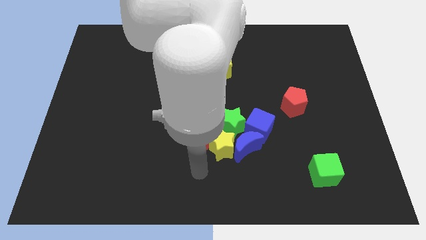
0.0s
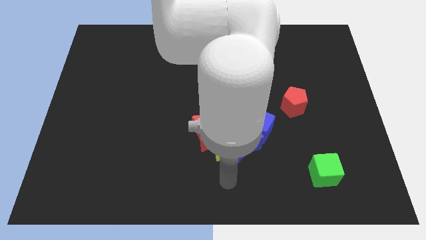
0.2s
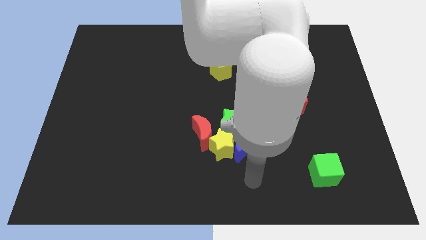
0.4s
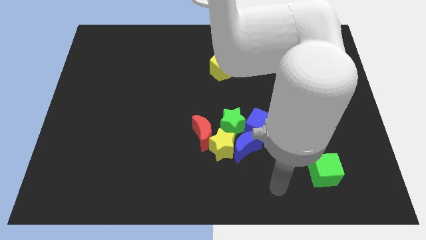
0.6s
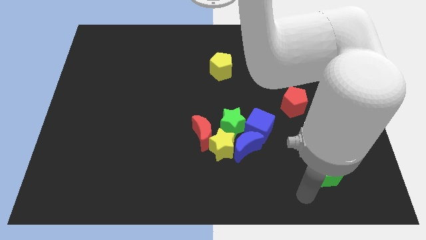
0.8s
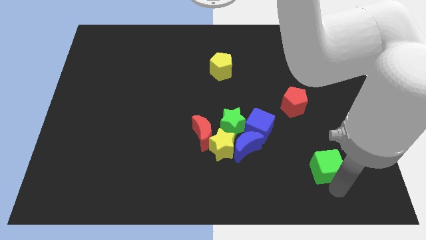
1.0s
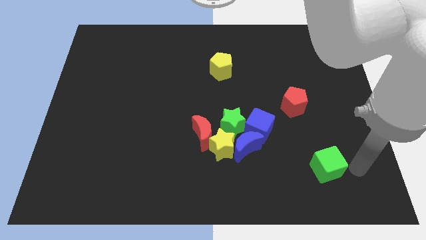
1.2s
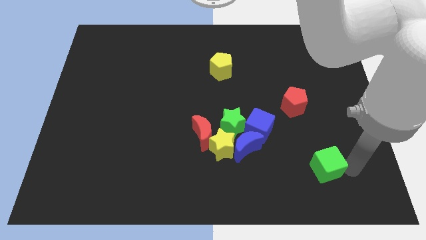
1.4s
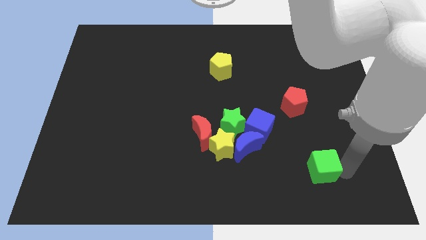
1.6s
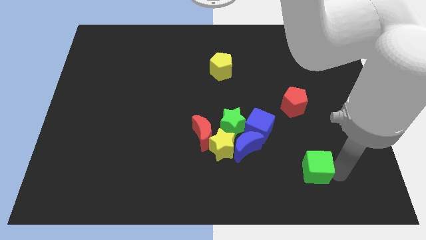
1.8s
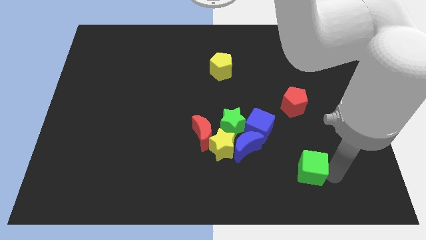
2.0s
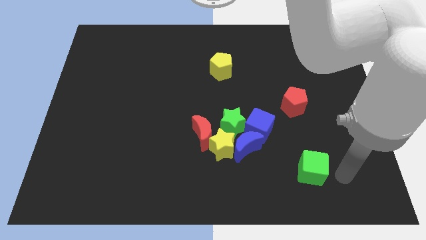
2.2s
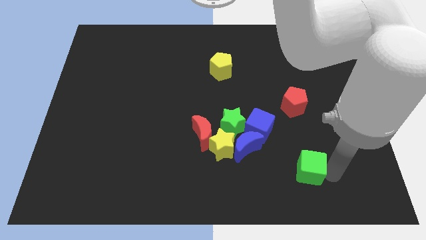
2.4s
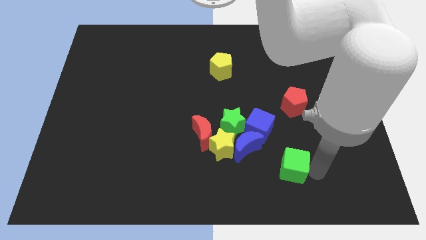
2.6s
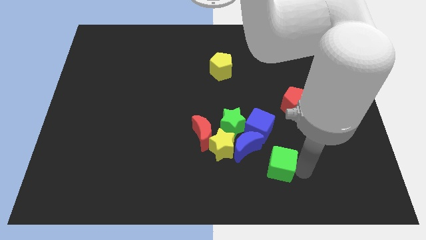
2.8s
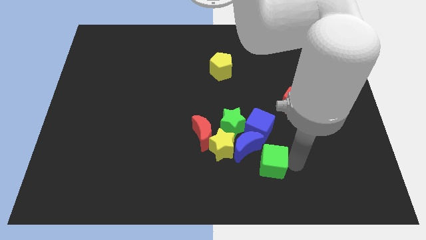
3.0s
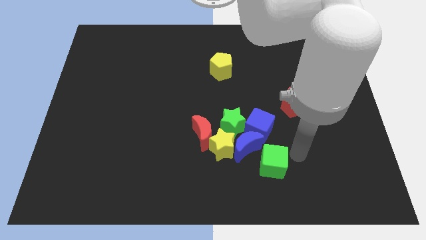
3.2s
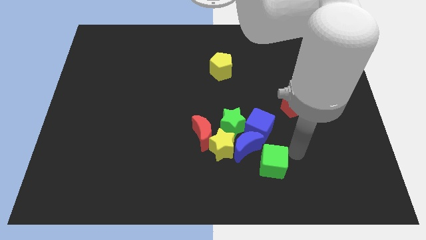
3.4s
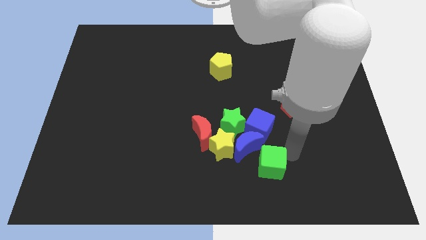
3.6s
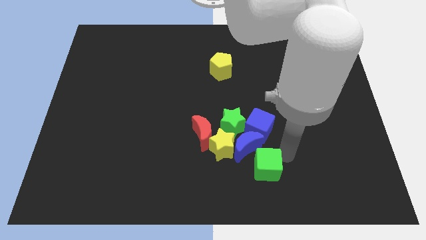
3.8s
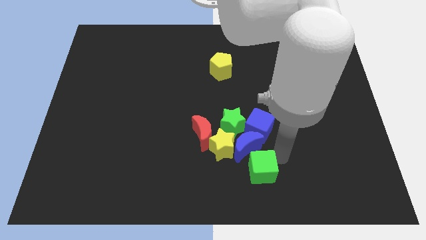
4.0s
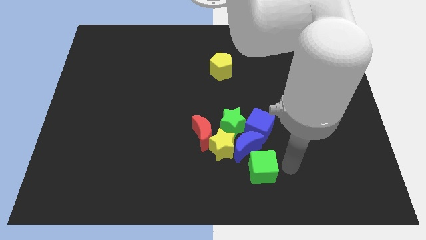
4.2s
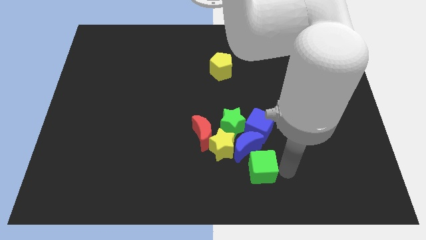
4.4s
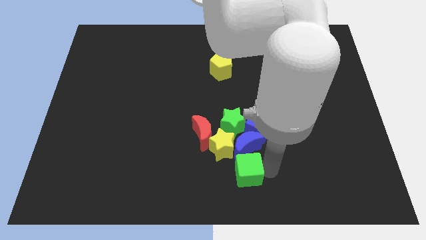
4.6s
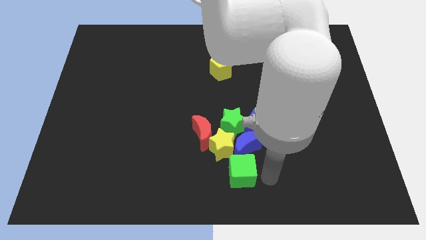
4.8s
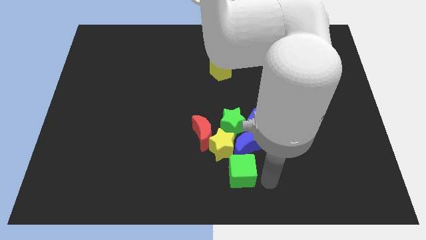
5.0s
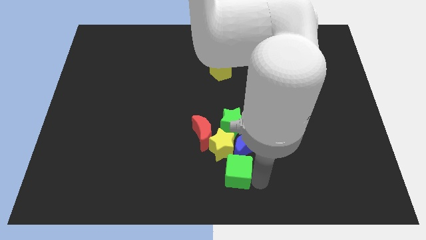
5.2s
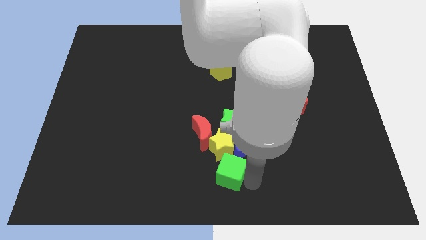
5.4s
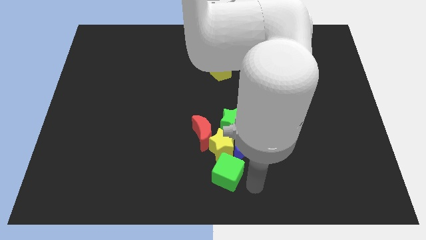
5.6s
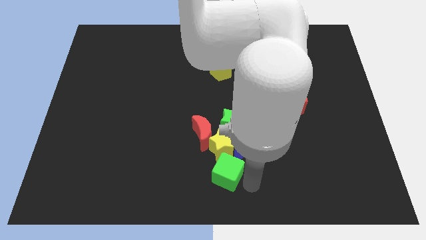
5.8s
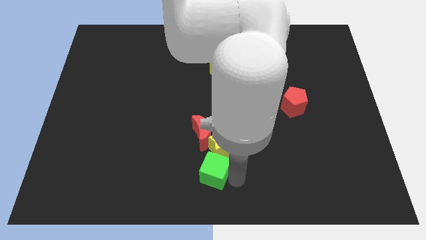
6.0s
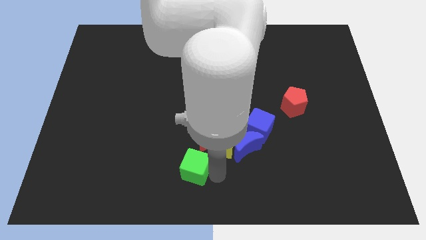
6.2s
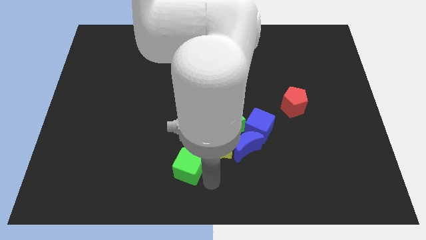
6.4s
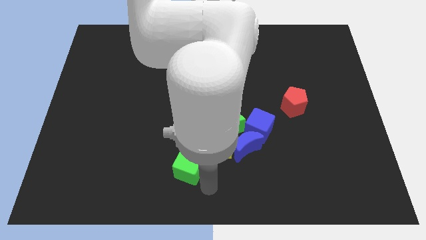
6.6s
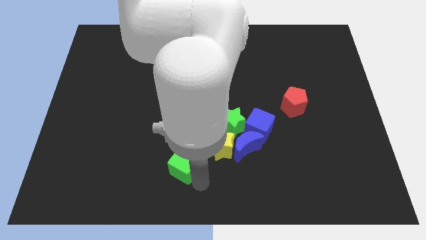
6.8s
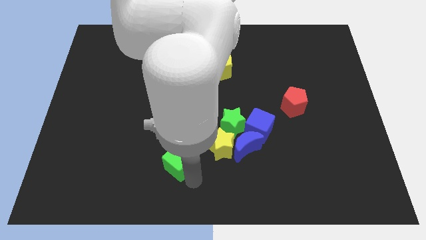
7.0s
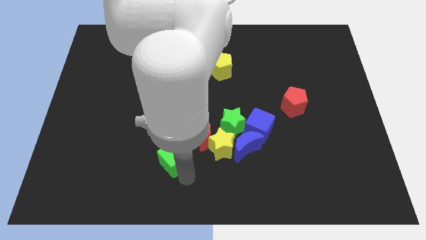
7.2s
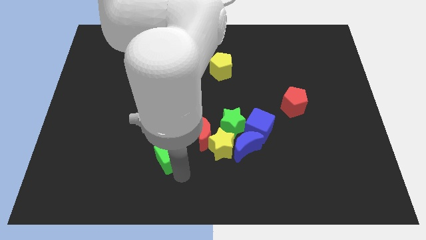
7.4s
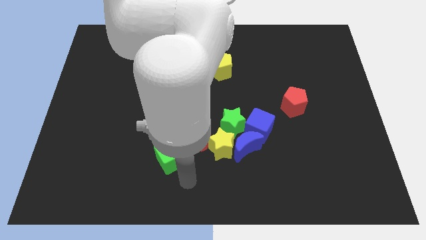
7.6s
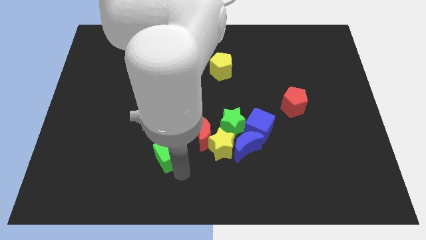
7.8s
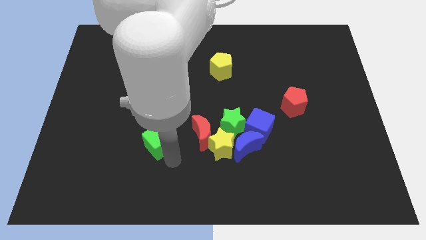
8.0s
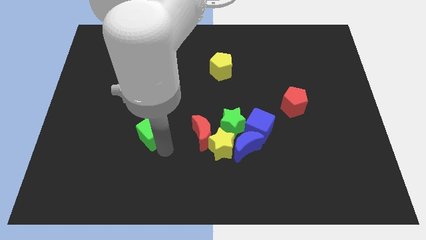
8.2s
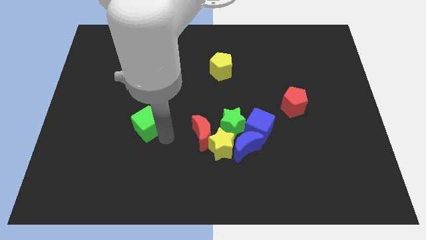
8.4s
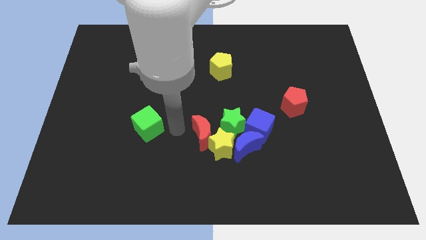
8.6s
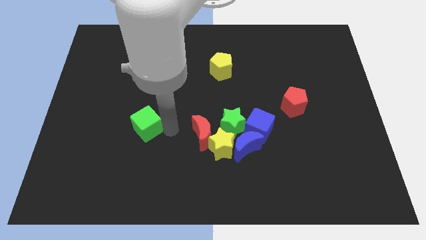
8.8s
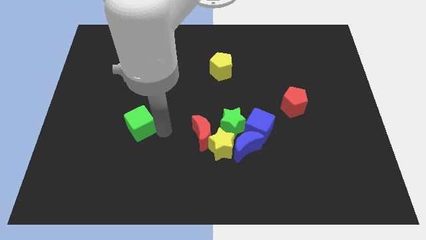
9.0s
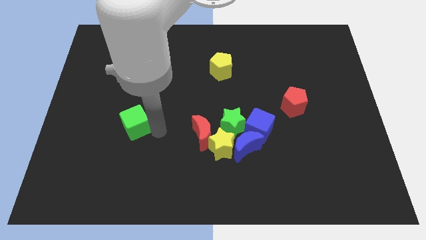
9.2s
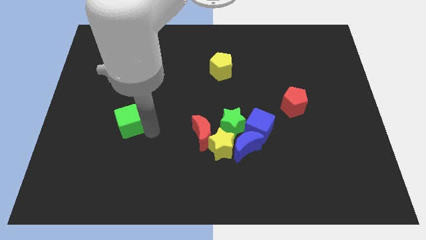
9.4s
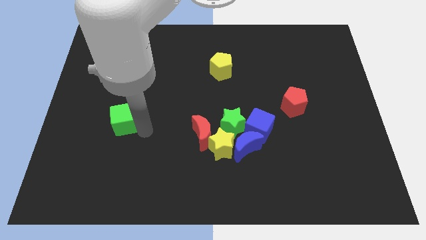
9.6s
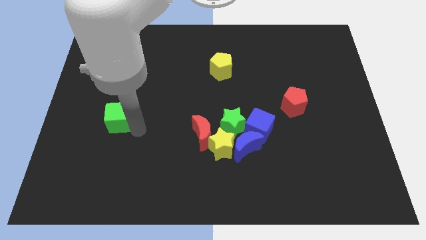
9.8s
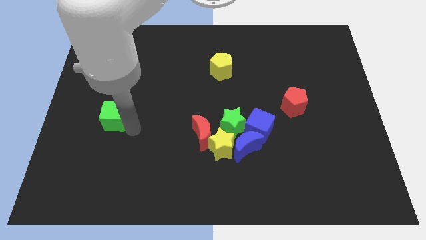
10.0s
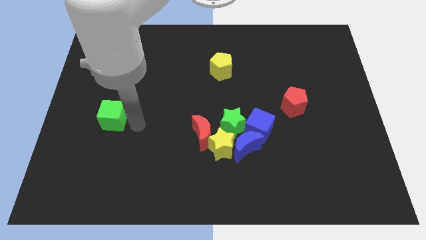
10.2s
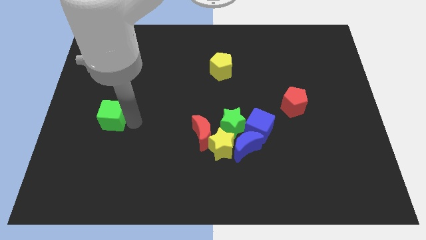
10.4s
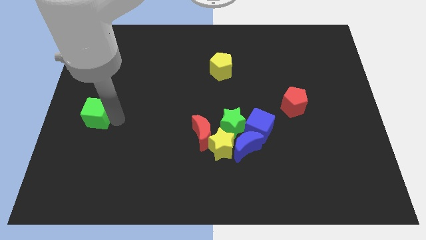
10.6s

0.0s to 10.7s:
put the green cube to the left side
